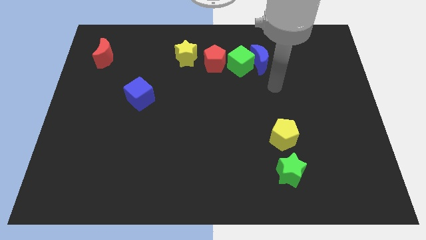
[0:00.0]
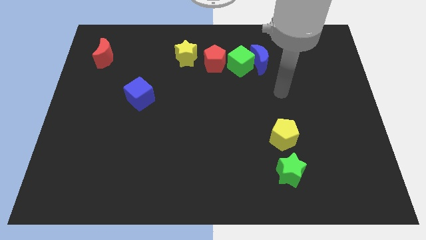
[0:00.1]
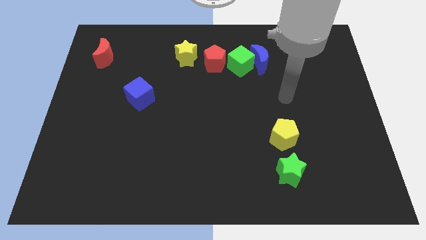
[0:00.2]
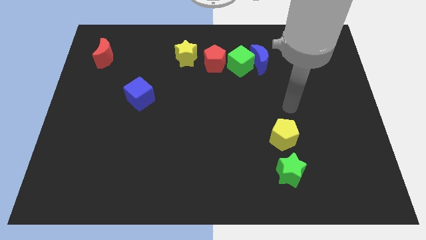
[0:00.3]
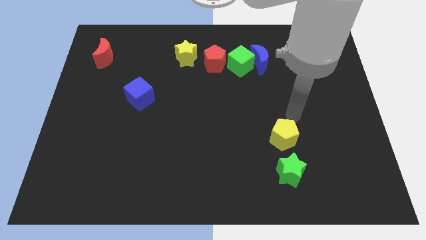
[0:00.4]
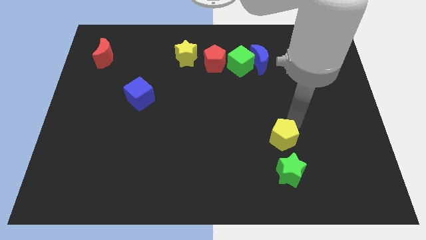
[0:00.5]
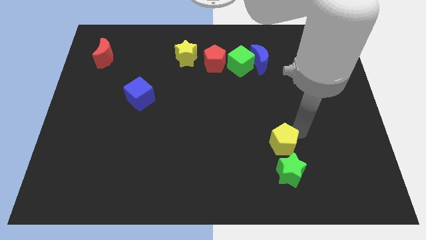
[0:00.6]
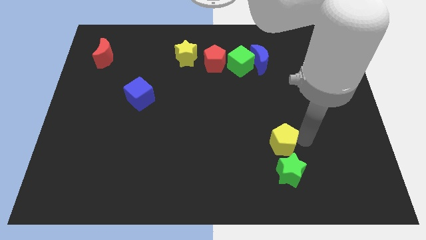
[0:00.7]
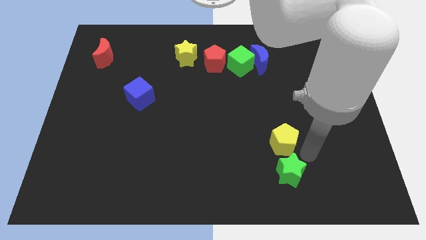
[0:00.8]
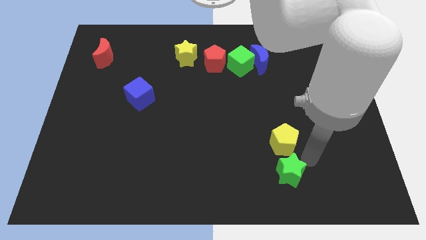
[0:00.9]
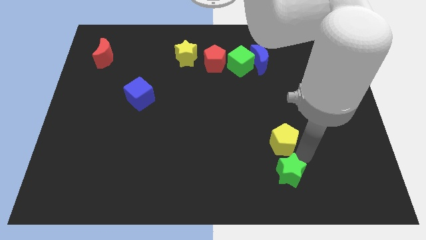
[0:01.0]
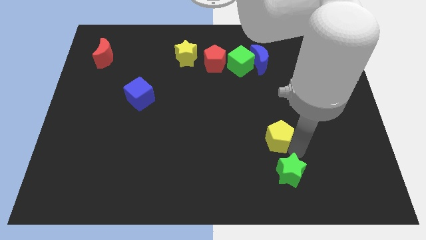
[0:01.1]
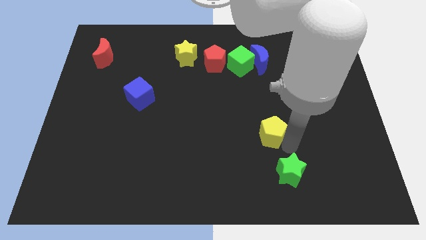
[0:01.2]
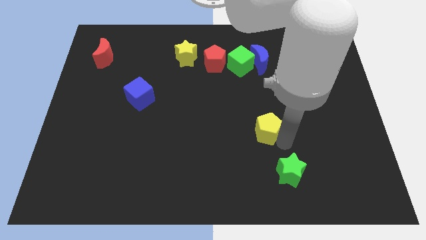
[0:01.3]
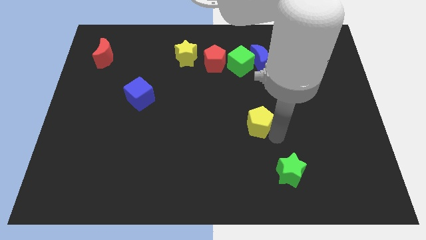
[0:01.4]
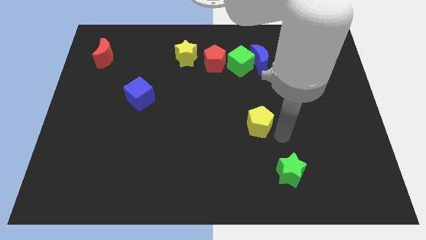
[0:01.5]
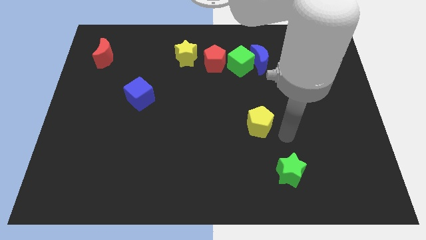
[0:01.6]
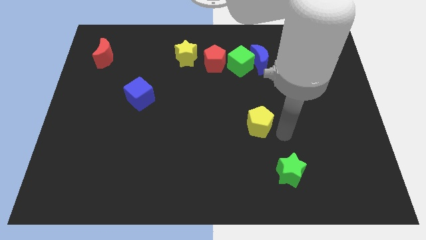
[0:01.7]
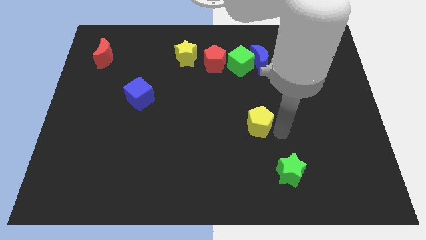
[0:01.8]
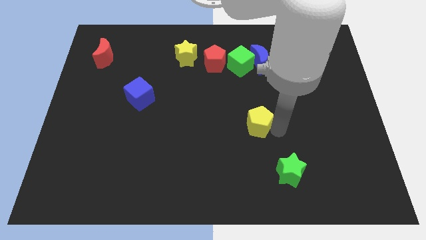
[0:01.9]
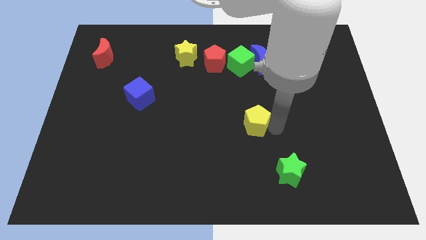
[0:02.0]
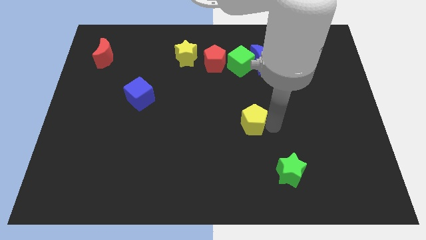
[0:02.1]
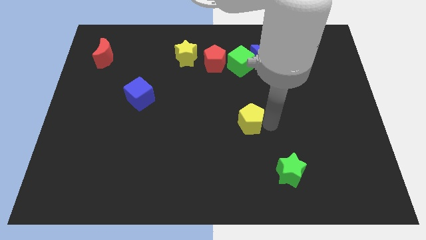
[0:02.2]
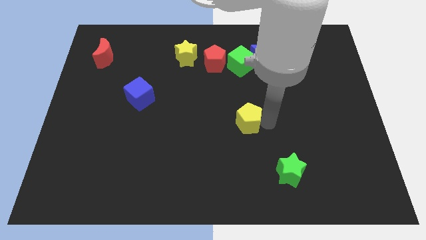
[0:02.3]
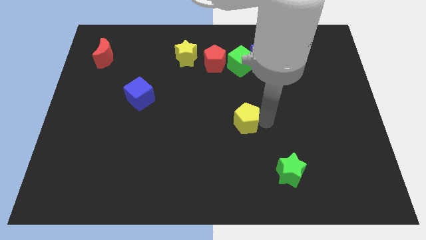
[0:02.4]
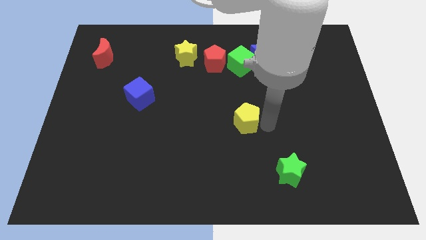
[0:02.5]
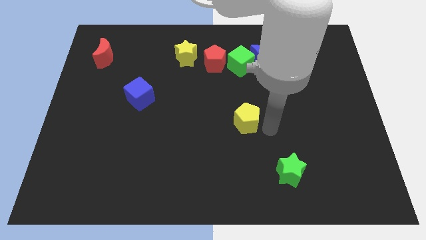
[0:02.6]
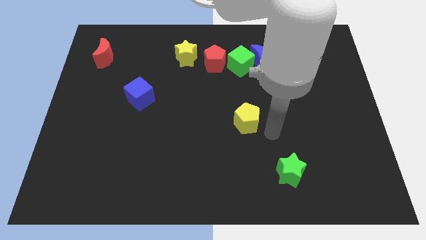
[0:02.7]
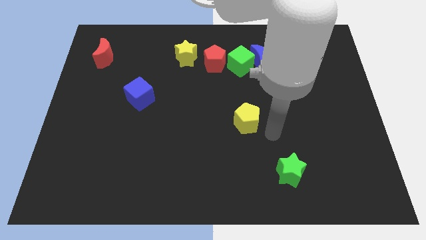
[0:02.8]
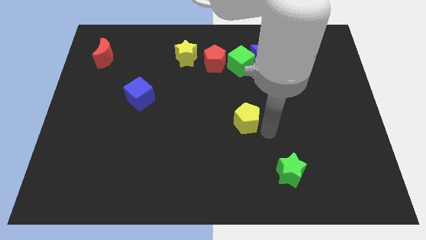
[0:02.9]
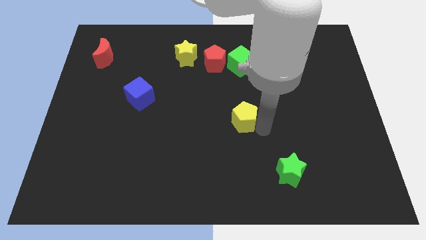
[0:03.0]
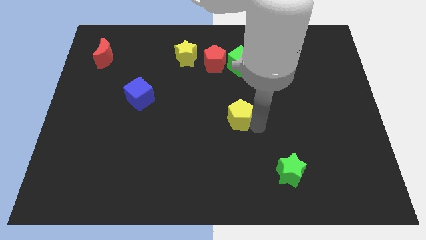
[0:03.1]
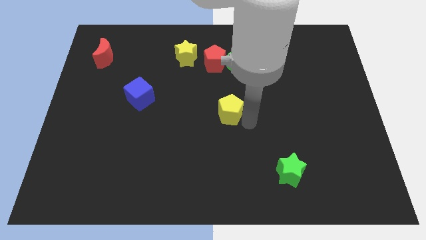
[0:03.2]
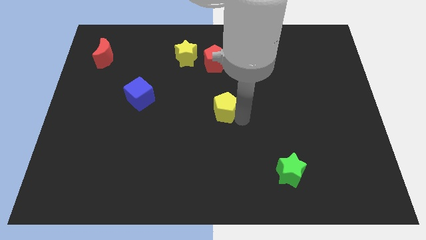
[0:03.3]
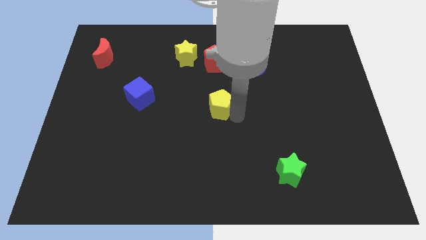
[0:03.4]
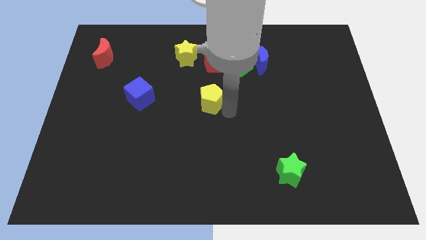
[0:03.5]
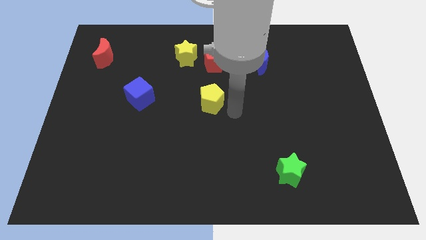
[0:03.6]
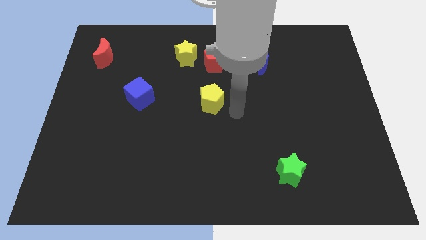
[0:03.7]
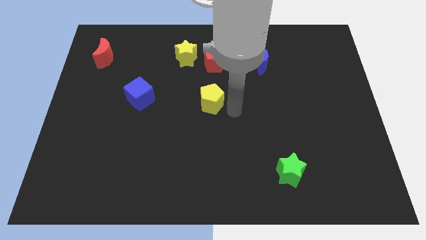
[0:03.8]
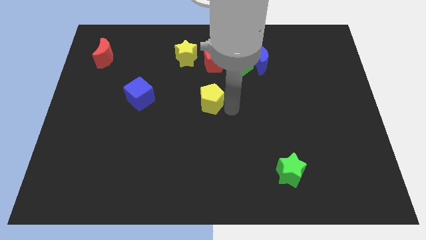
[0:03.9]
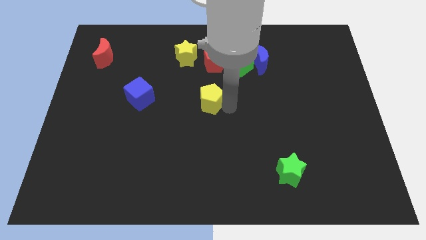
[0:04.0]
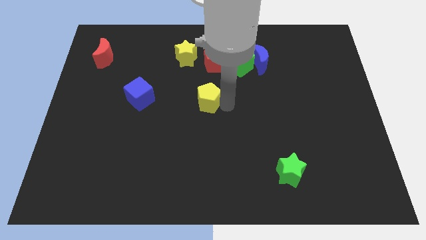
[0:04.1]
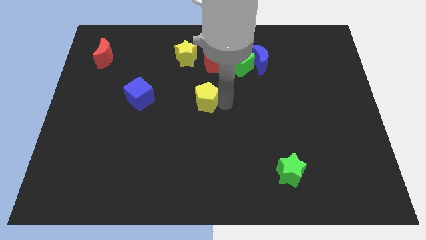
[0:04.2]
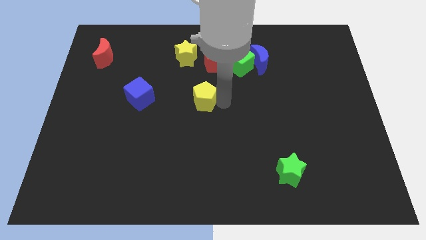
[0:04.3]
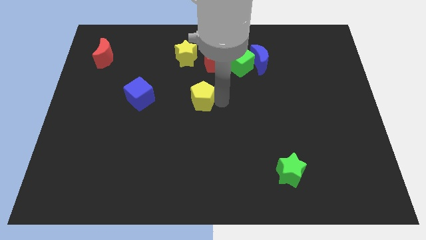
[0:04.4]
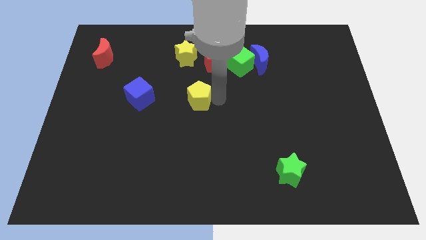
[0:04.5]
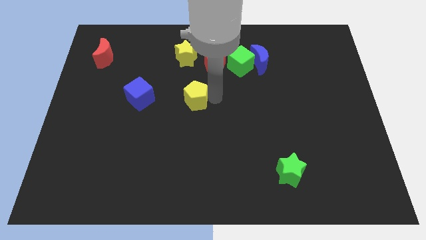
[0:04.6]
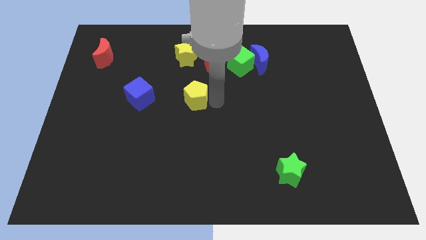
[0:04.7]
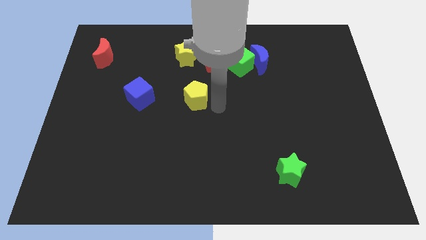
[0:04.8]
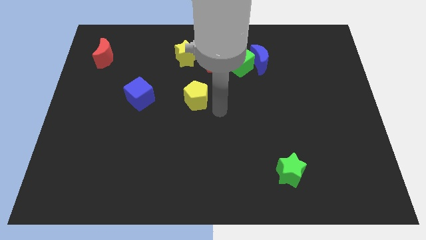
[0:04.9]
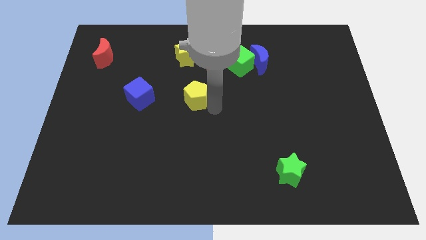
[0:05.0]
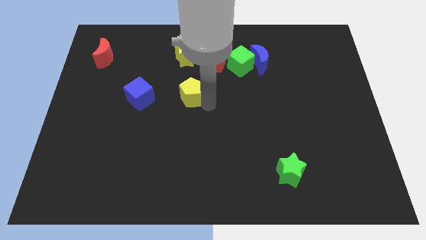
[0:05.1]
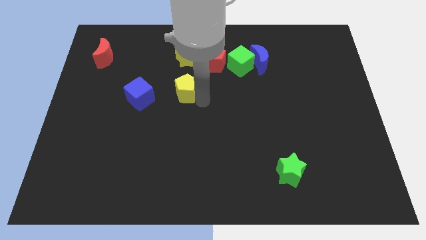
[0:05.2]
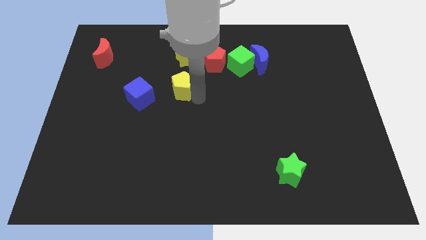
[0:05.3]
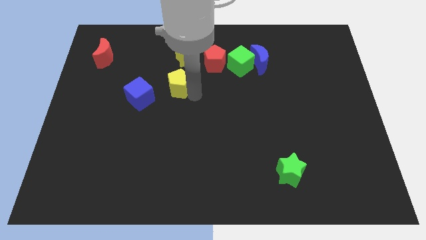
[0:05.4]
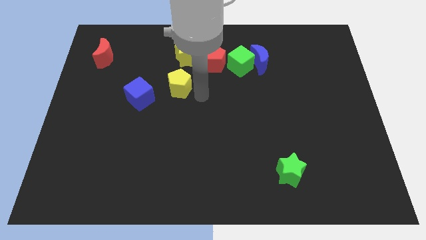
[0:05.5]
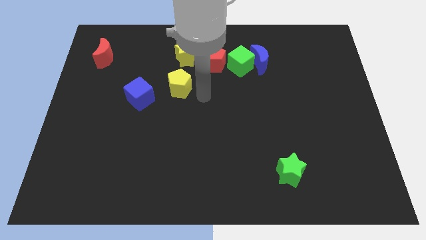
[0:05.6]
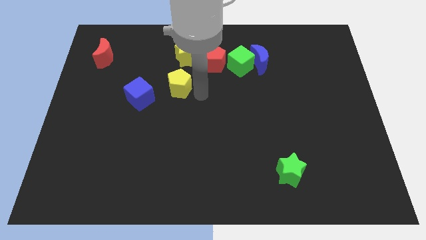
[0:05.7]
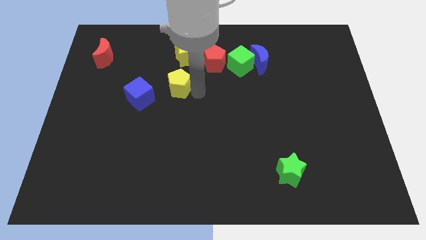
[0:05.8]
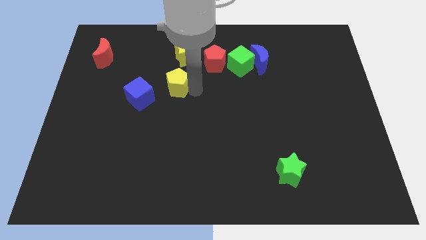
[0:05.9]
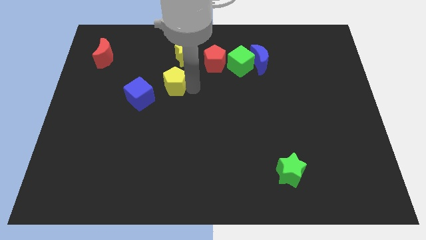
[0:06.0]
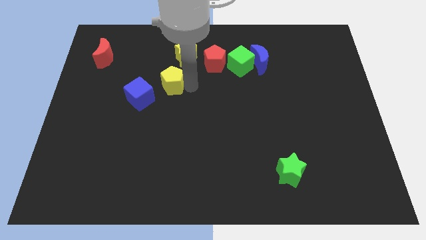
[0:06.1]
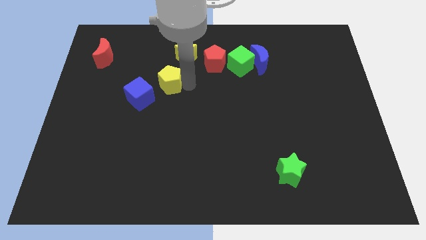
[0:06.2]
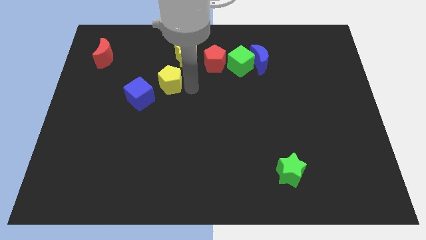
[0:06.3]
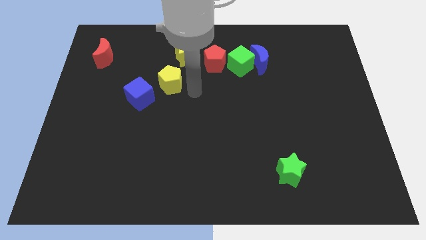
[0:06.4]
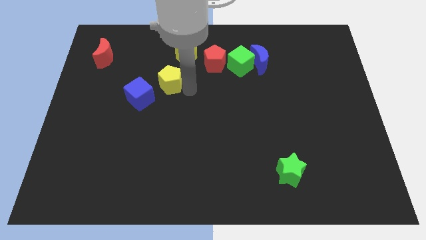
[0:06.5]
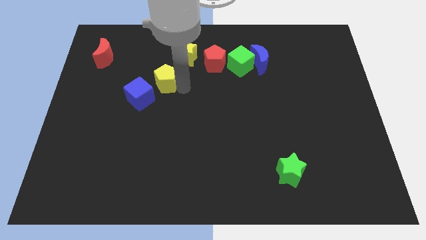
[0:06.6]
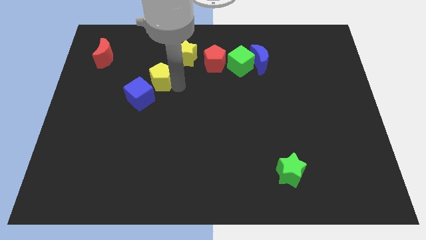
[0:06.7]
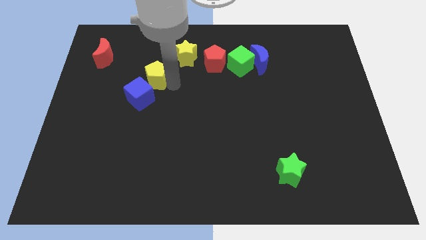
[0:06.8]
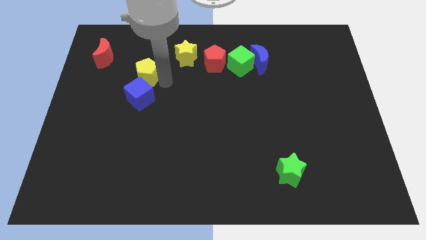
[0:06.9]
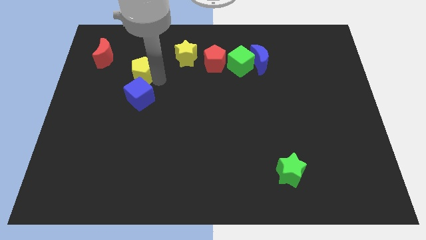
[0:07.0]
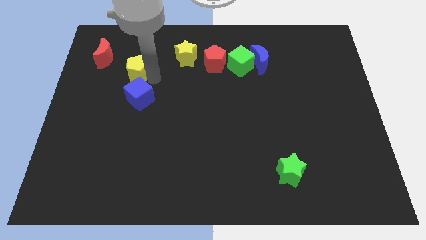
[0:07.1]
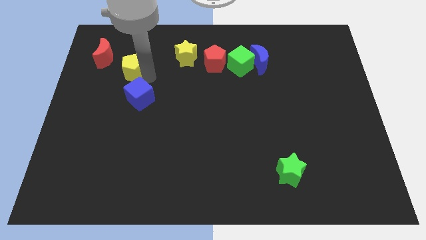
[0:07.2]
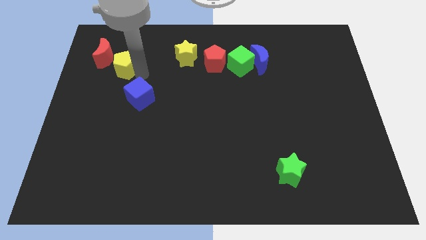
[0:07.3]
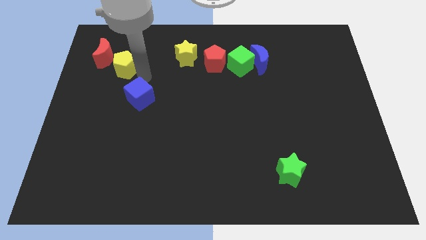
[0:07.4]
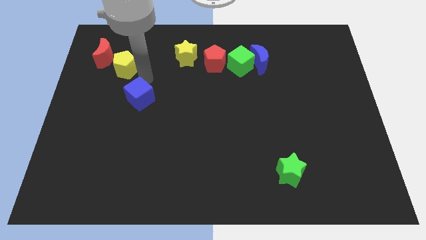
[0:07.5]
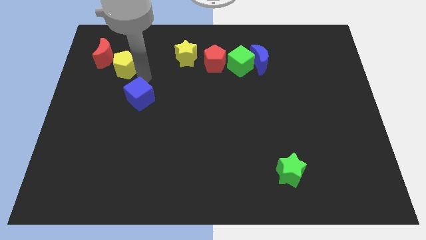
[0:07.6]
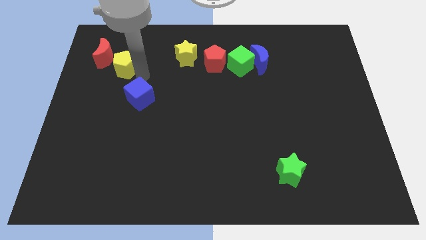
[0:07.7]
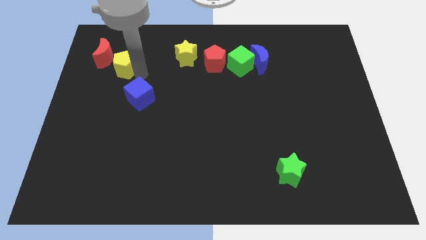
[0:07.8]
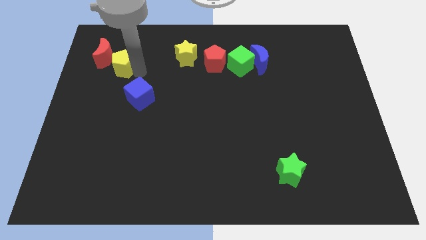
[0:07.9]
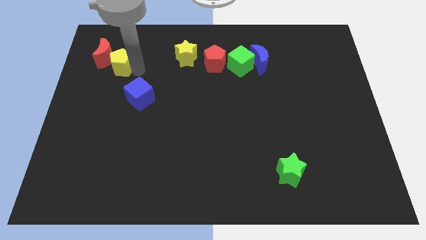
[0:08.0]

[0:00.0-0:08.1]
slide the yellow pentagon to the red moon
